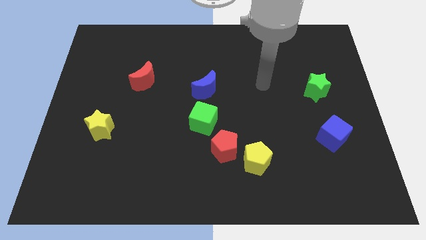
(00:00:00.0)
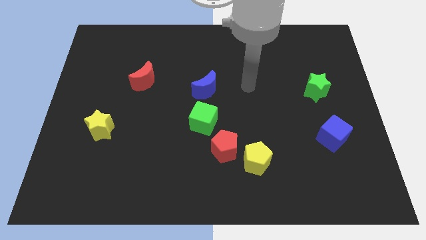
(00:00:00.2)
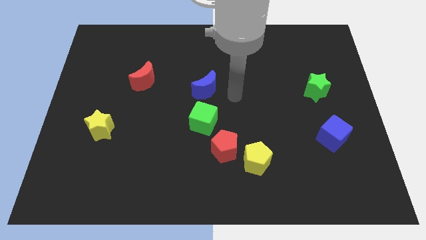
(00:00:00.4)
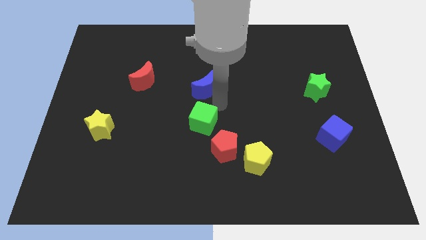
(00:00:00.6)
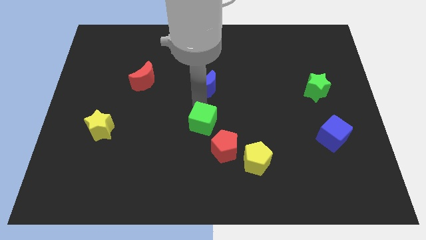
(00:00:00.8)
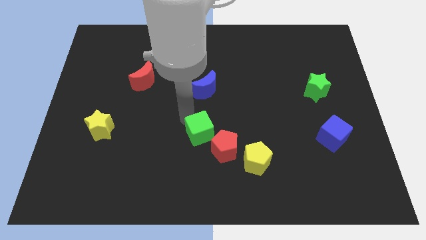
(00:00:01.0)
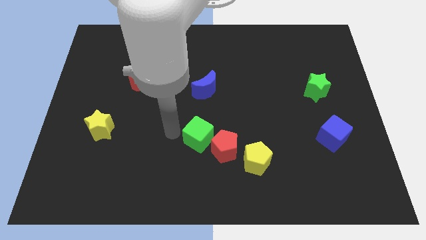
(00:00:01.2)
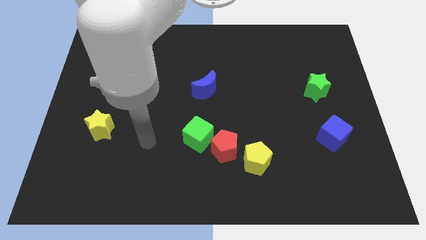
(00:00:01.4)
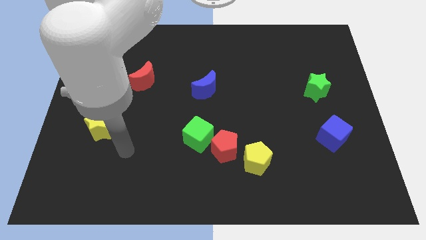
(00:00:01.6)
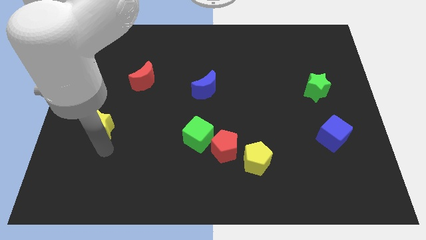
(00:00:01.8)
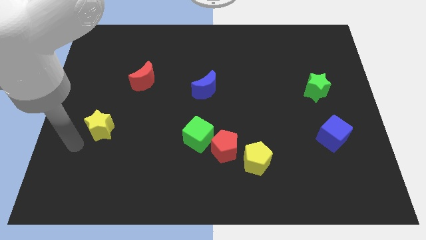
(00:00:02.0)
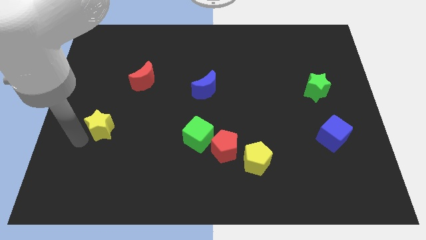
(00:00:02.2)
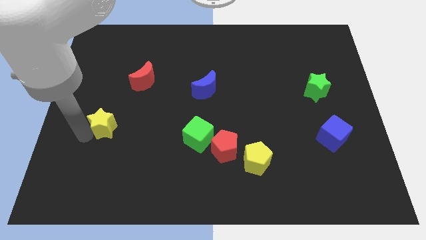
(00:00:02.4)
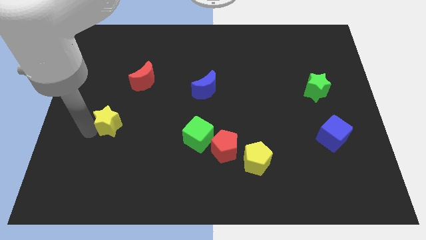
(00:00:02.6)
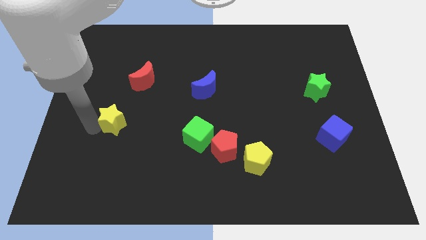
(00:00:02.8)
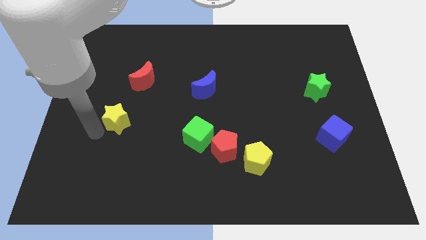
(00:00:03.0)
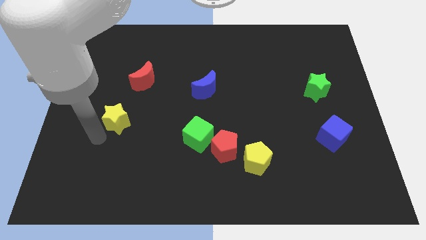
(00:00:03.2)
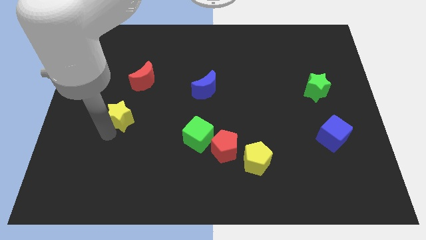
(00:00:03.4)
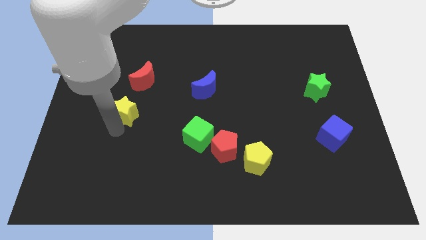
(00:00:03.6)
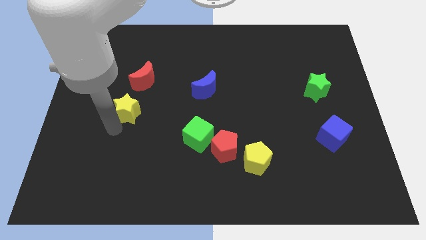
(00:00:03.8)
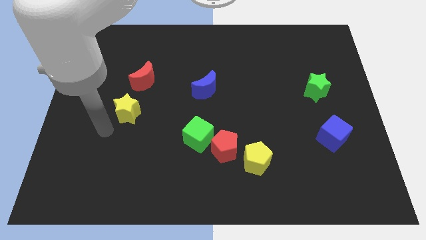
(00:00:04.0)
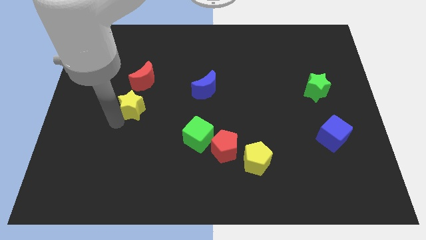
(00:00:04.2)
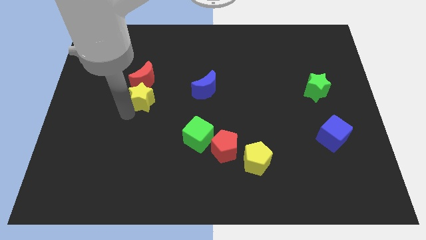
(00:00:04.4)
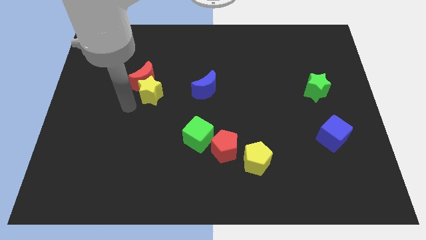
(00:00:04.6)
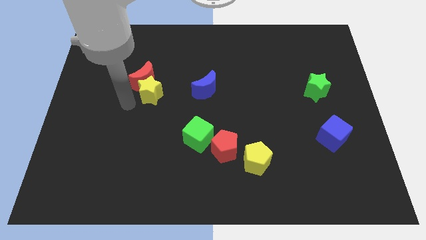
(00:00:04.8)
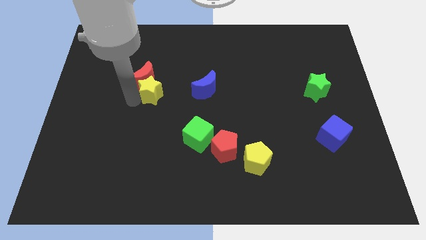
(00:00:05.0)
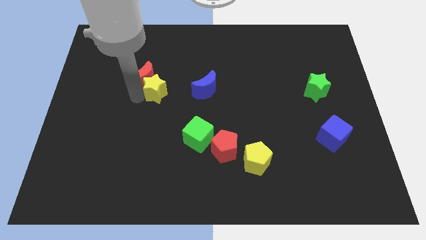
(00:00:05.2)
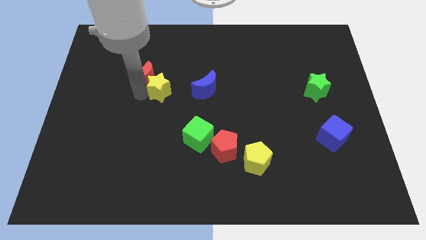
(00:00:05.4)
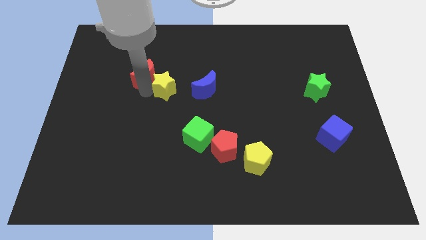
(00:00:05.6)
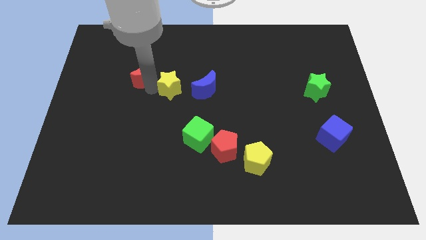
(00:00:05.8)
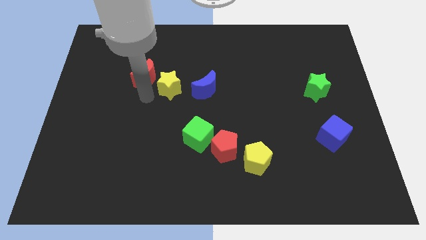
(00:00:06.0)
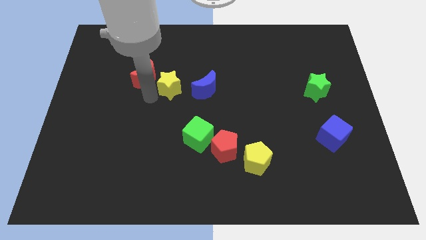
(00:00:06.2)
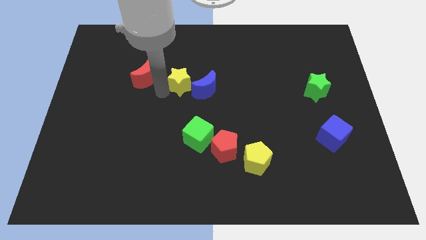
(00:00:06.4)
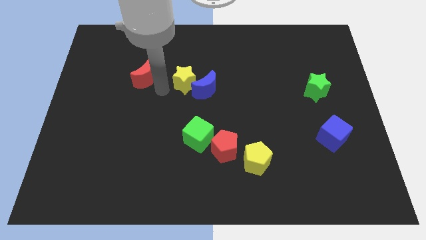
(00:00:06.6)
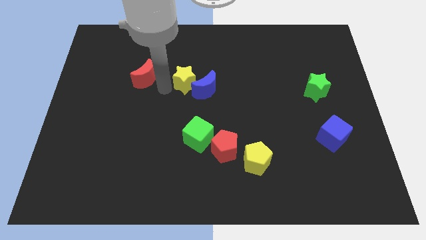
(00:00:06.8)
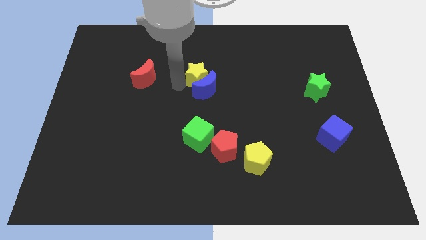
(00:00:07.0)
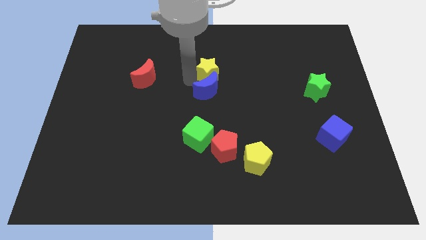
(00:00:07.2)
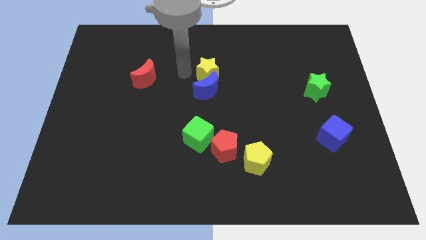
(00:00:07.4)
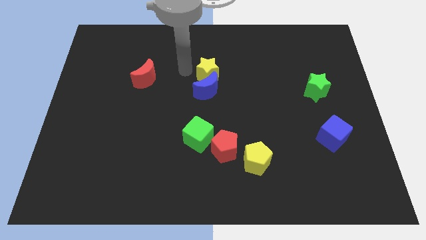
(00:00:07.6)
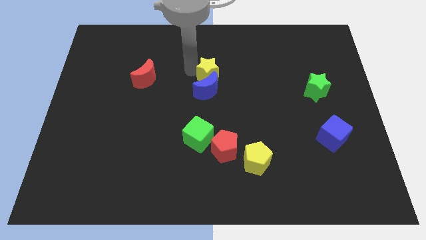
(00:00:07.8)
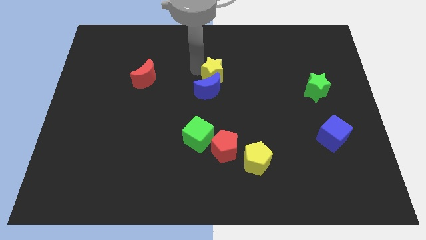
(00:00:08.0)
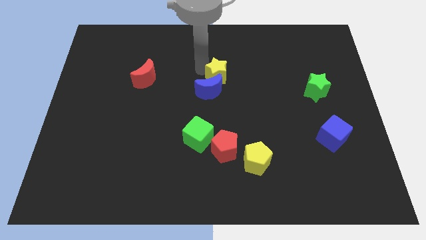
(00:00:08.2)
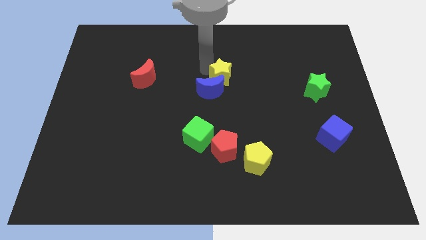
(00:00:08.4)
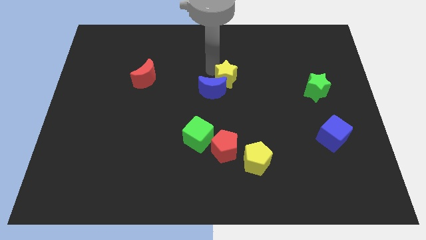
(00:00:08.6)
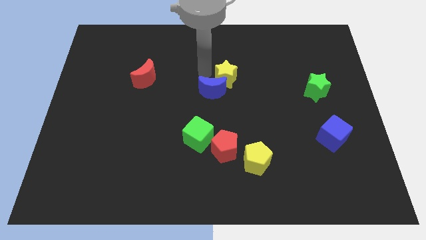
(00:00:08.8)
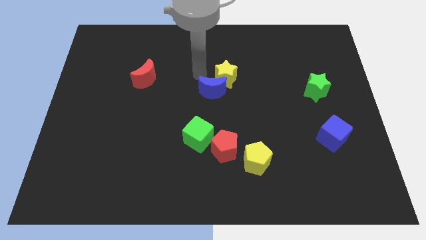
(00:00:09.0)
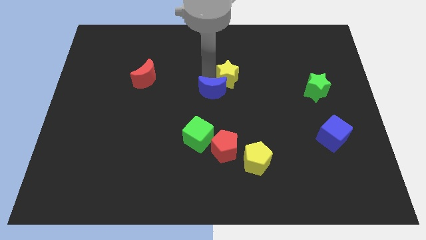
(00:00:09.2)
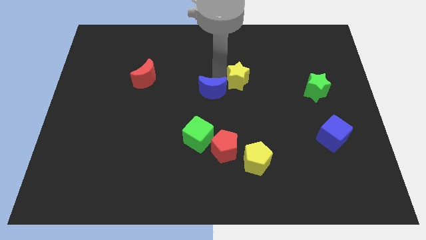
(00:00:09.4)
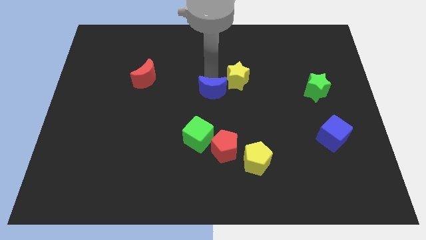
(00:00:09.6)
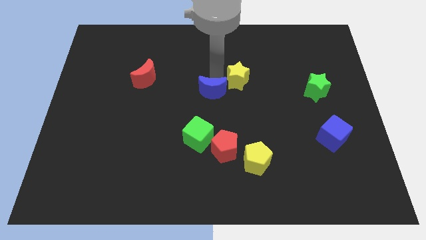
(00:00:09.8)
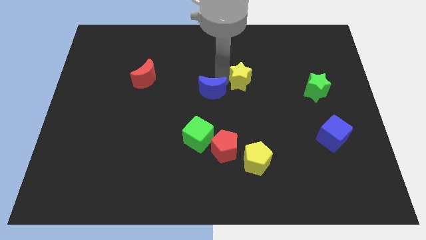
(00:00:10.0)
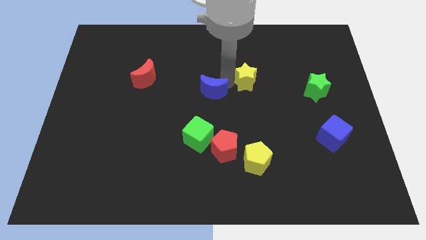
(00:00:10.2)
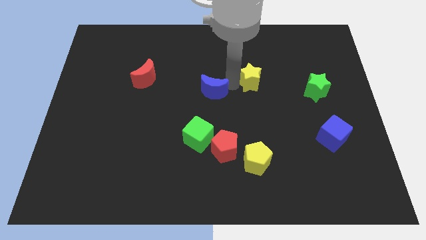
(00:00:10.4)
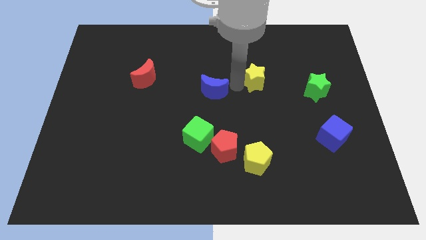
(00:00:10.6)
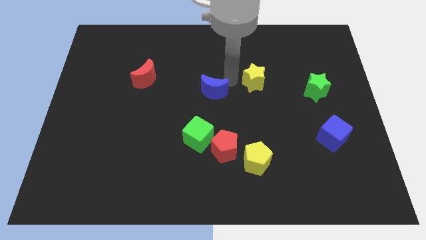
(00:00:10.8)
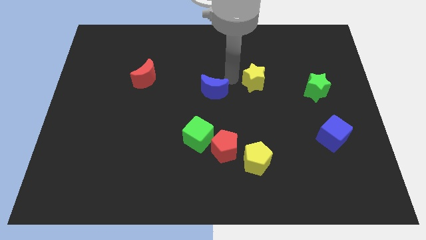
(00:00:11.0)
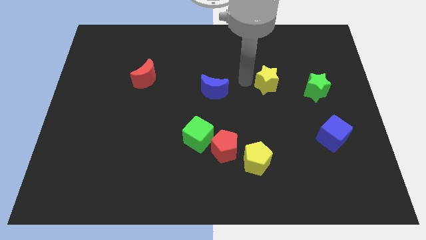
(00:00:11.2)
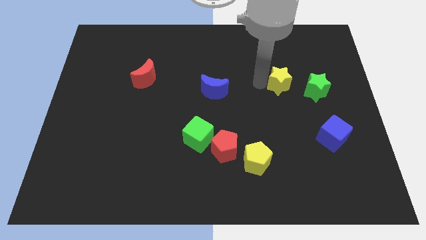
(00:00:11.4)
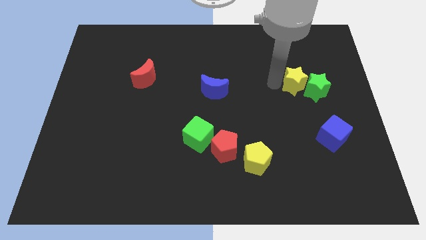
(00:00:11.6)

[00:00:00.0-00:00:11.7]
put the yellow star next to the green star

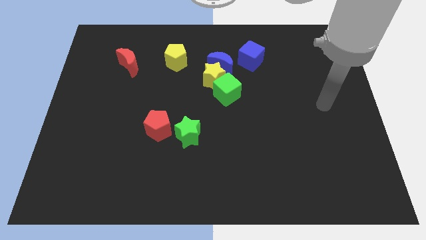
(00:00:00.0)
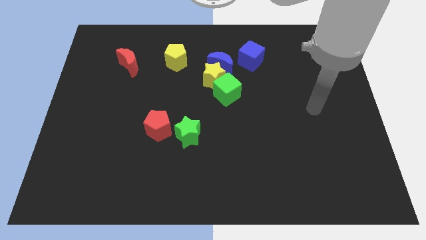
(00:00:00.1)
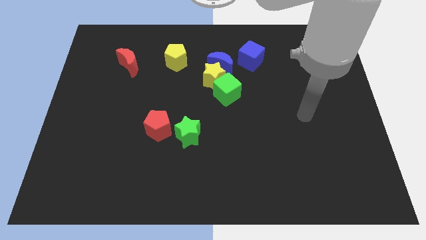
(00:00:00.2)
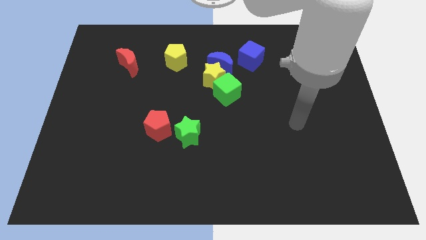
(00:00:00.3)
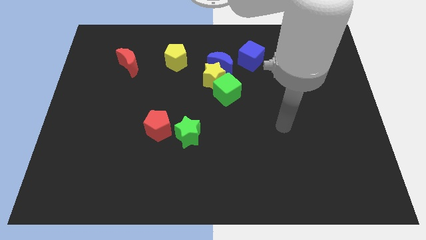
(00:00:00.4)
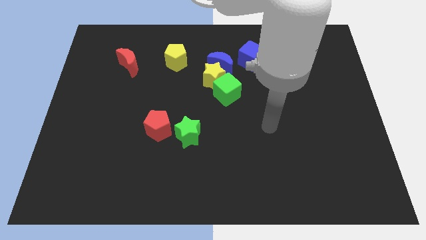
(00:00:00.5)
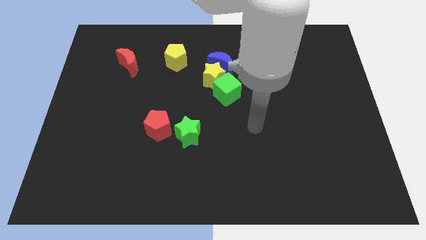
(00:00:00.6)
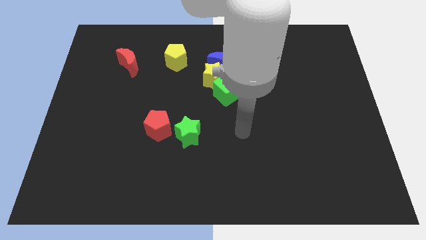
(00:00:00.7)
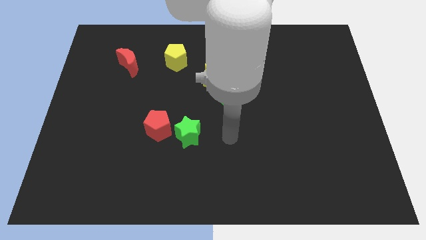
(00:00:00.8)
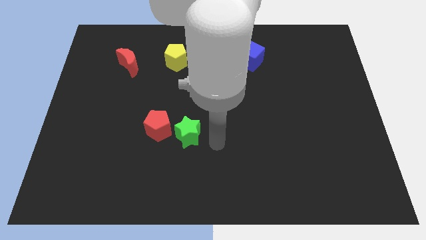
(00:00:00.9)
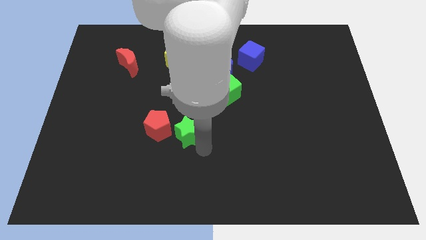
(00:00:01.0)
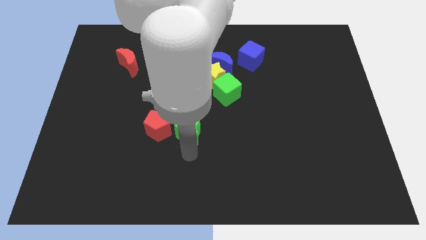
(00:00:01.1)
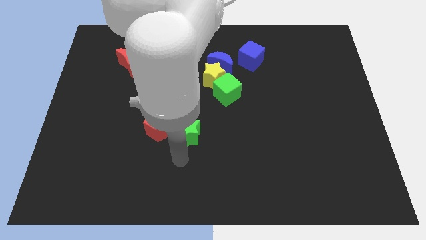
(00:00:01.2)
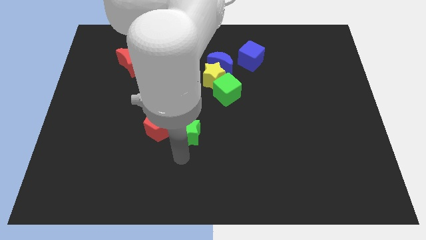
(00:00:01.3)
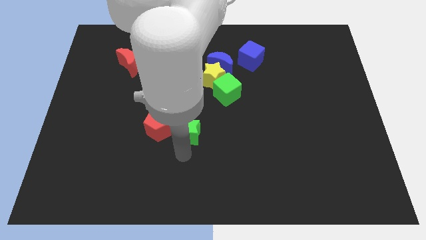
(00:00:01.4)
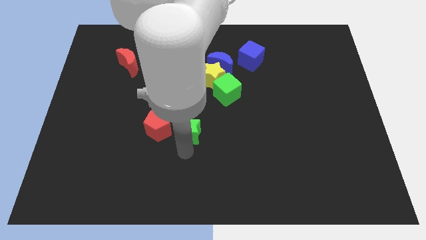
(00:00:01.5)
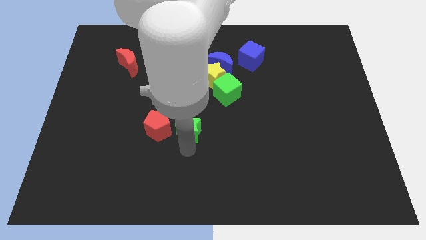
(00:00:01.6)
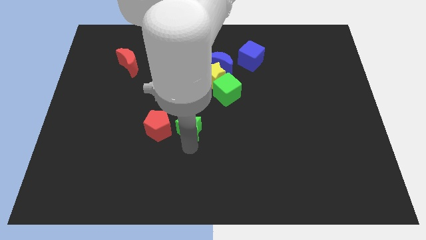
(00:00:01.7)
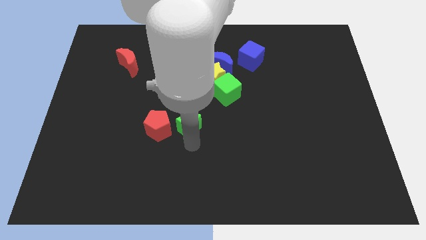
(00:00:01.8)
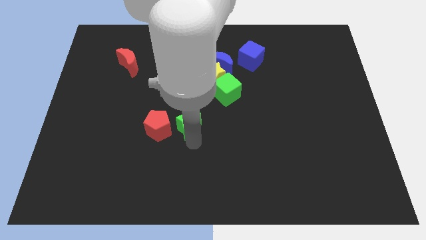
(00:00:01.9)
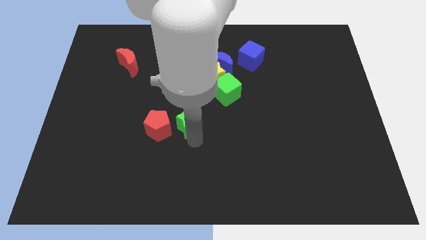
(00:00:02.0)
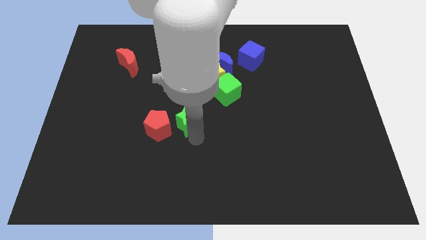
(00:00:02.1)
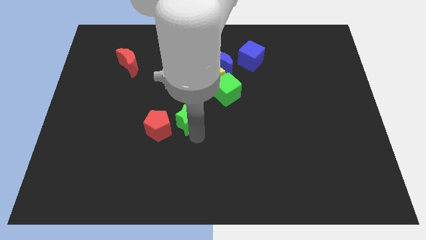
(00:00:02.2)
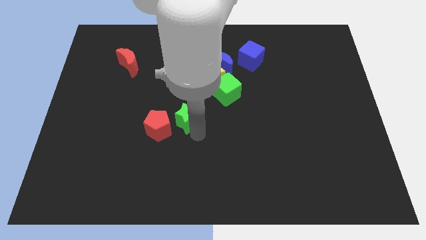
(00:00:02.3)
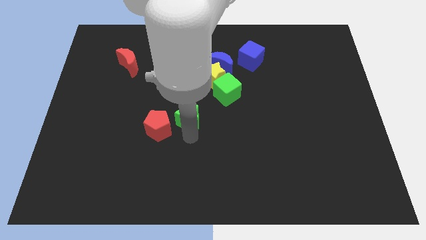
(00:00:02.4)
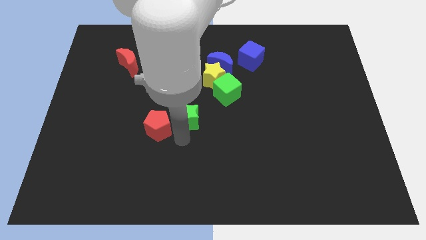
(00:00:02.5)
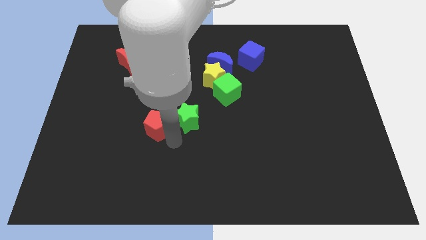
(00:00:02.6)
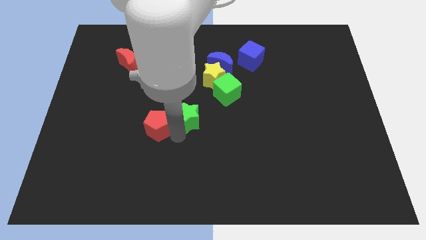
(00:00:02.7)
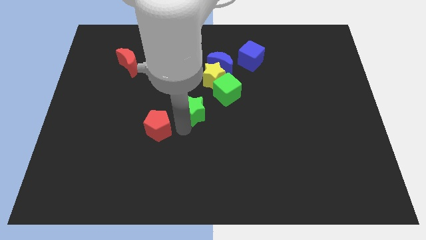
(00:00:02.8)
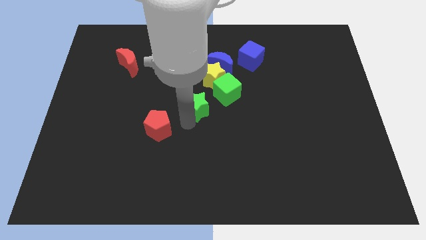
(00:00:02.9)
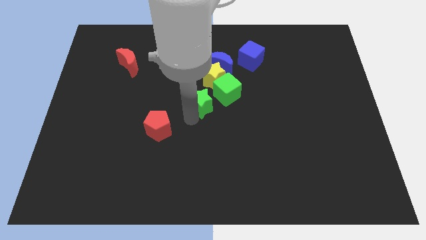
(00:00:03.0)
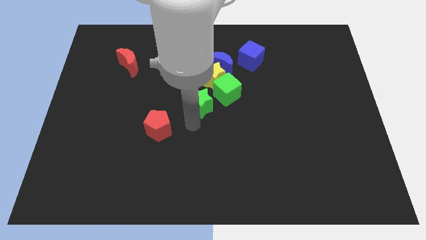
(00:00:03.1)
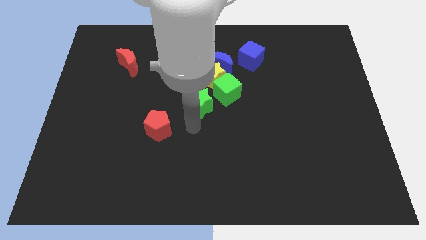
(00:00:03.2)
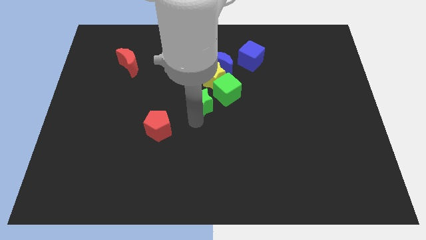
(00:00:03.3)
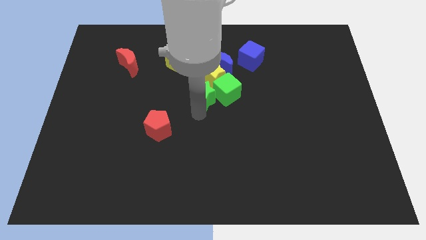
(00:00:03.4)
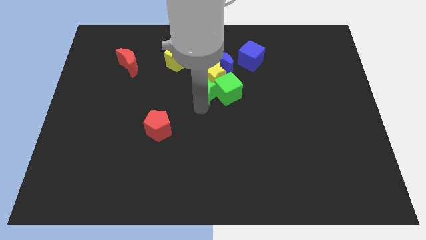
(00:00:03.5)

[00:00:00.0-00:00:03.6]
move the green star close to the yellow star
